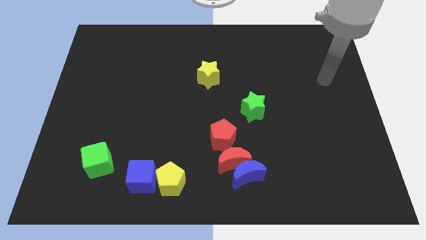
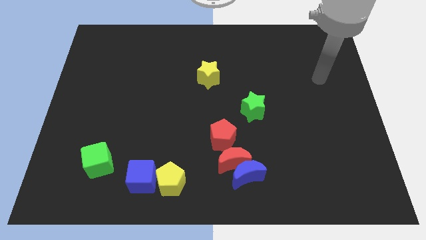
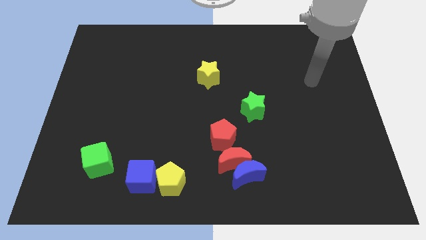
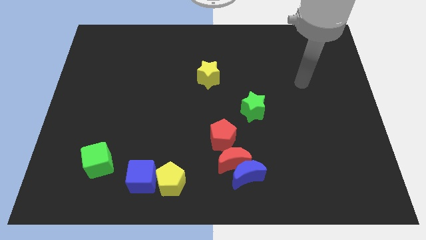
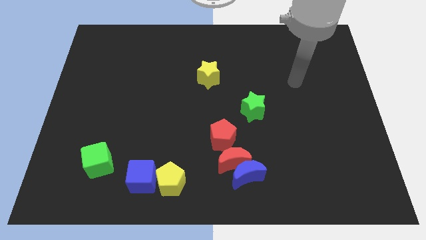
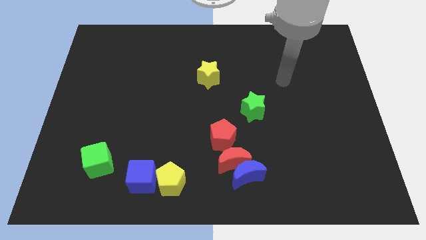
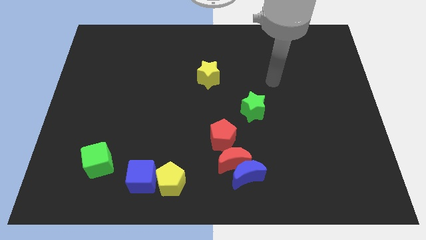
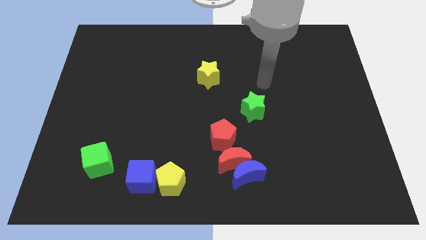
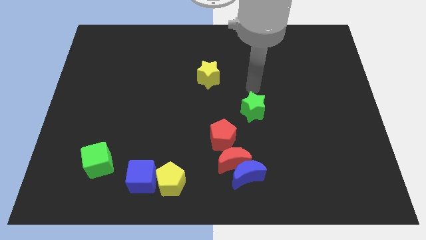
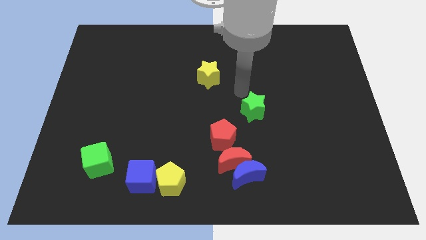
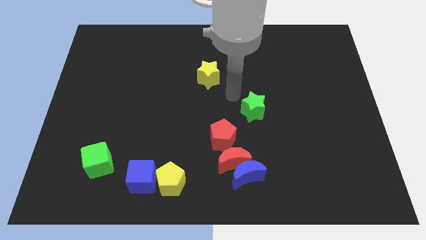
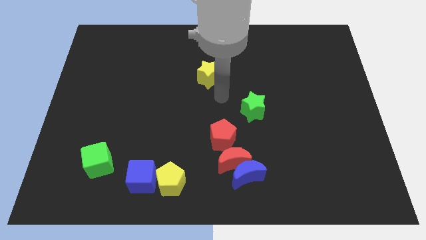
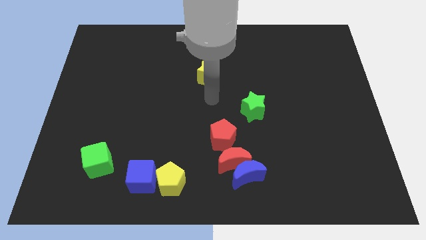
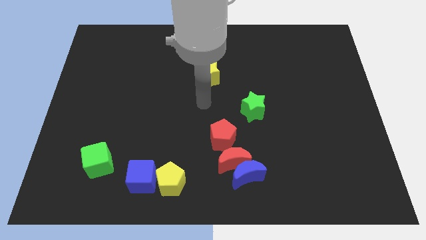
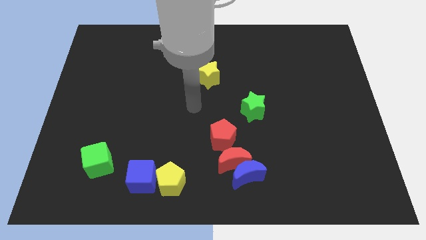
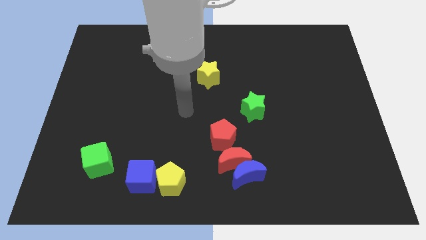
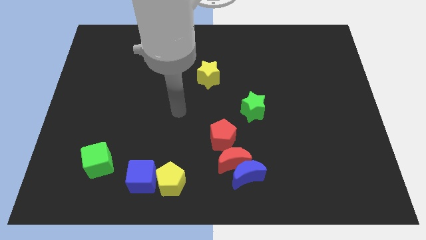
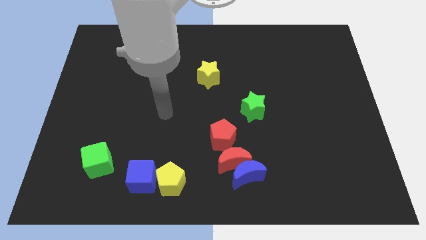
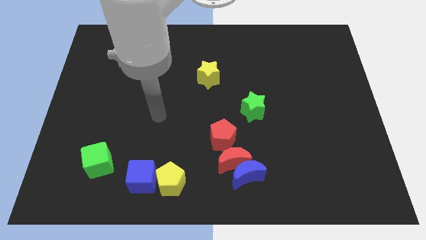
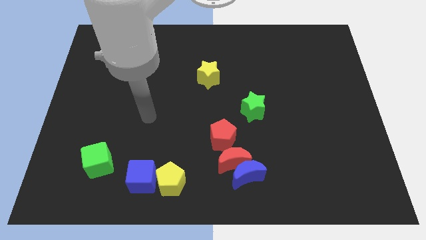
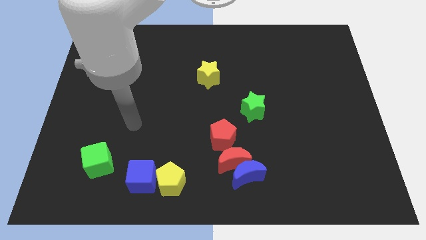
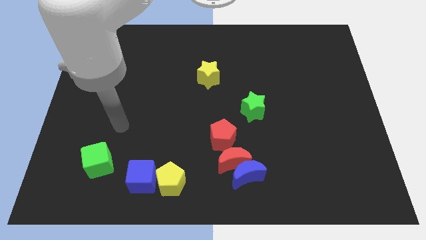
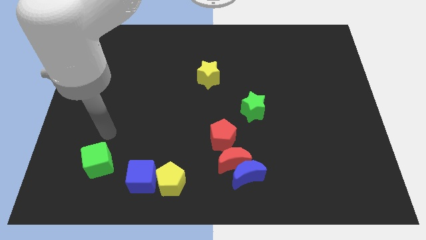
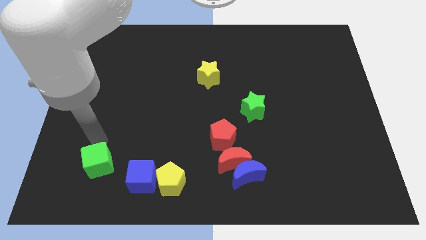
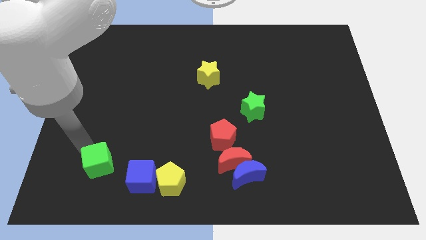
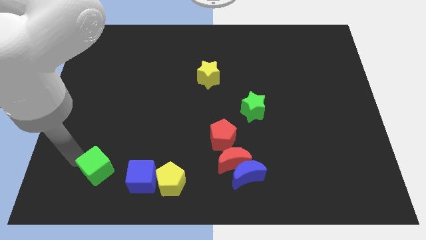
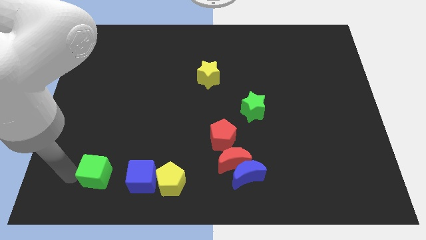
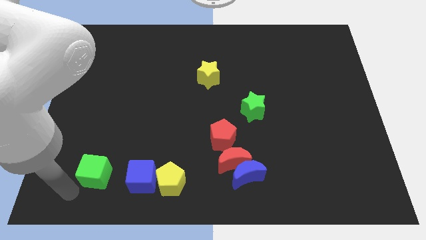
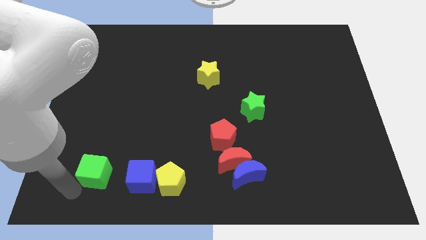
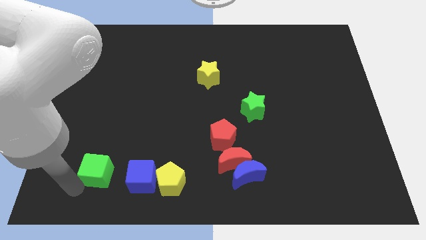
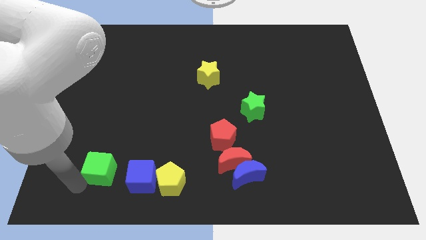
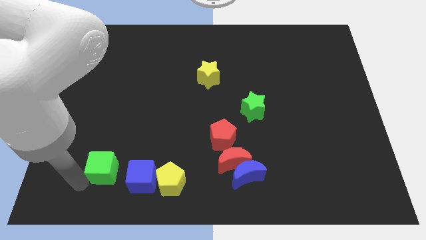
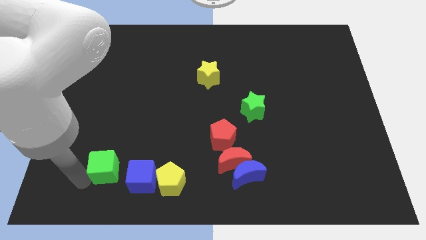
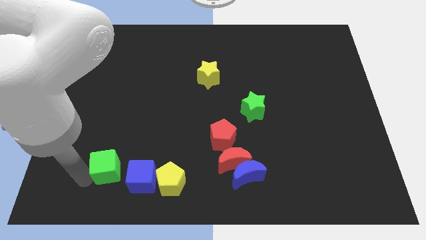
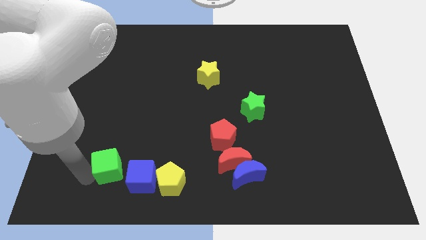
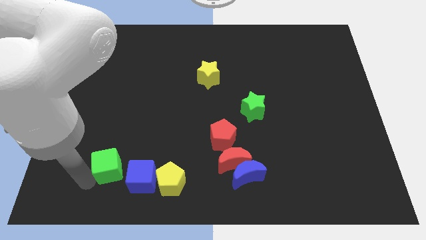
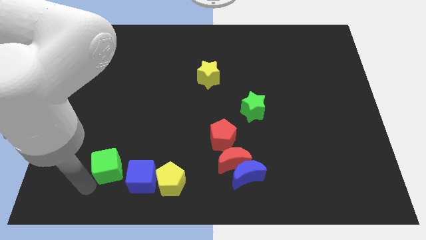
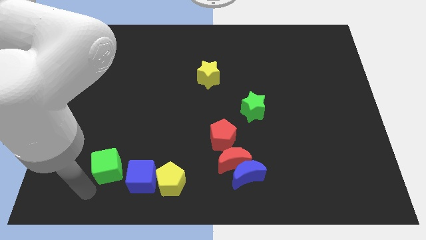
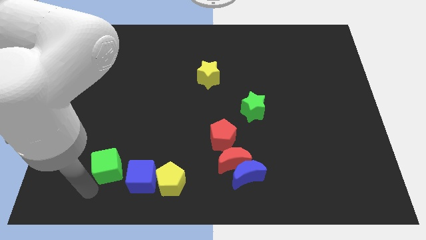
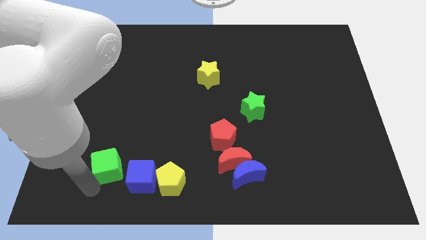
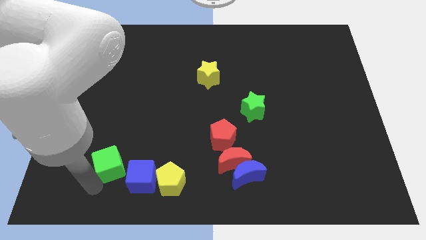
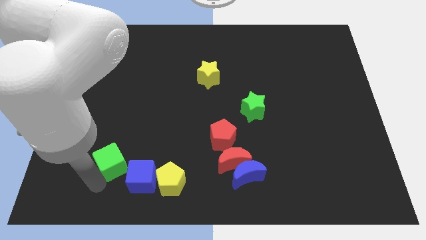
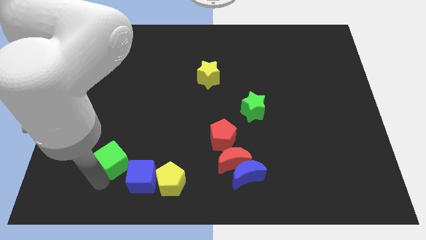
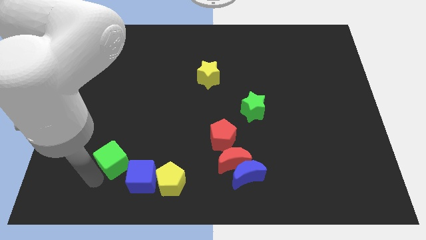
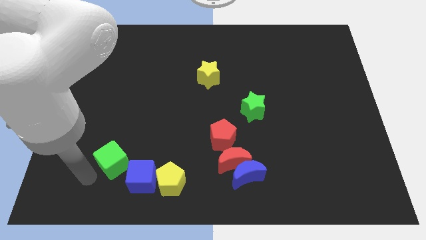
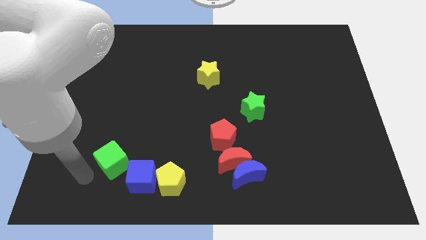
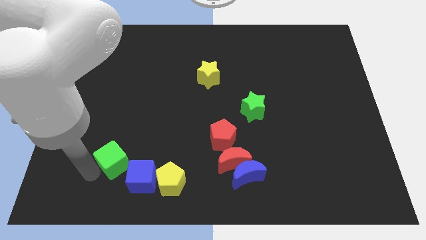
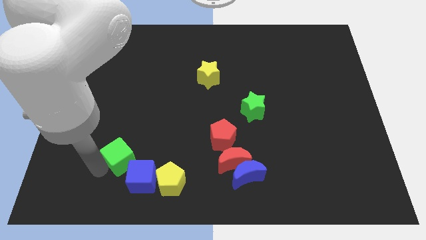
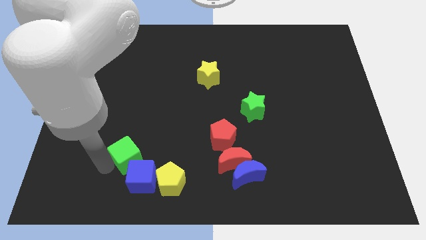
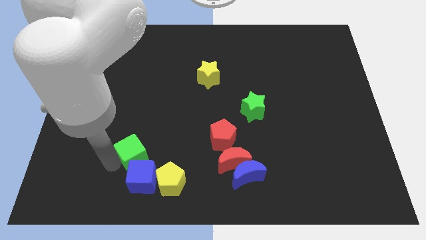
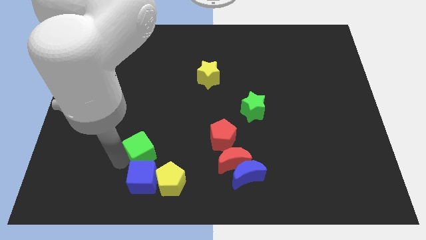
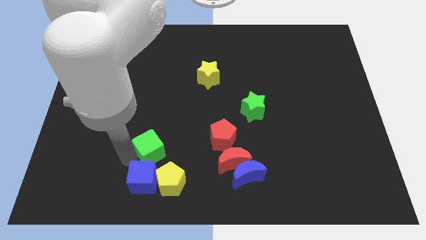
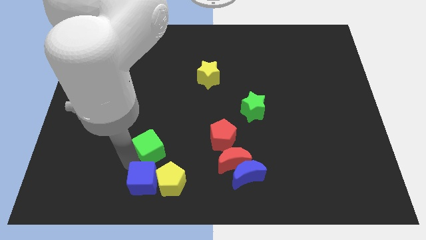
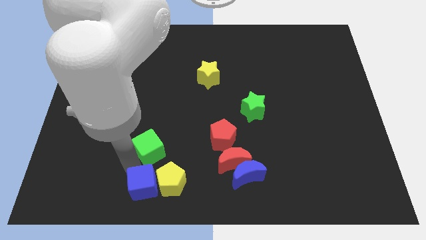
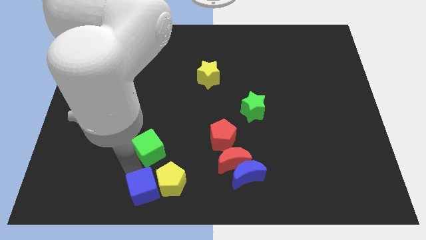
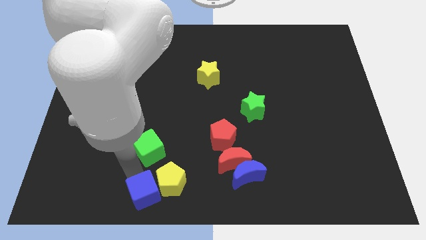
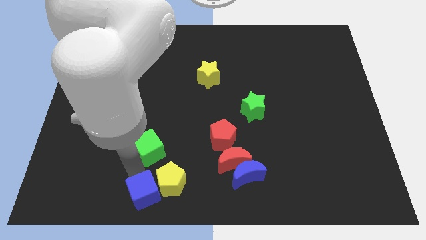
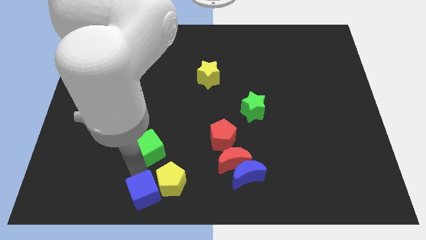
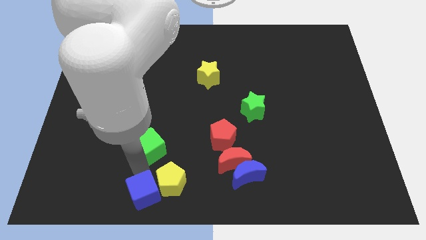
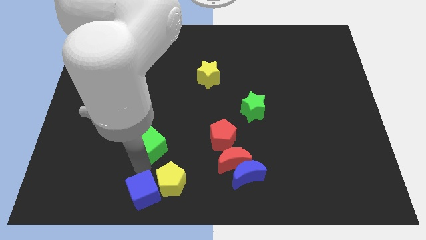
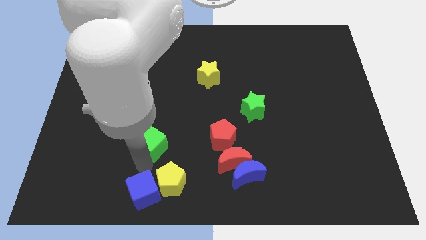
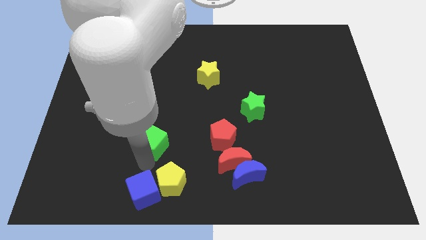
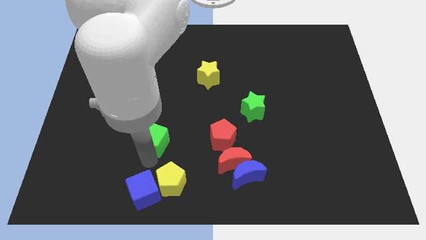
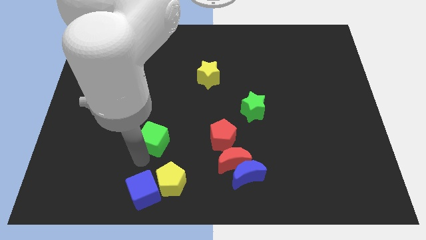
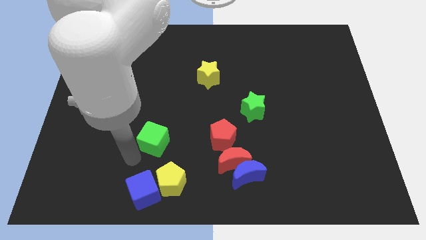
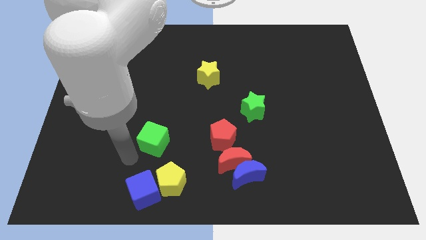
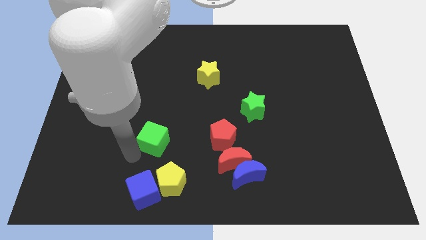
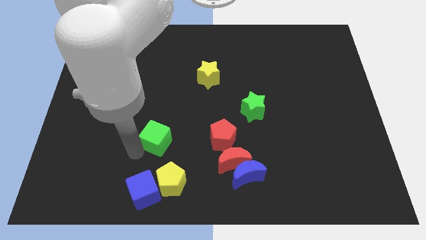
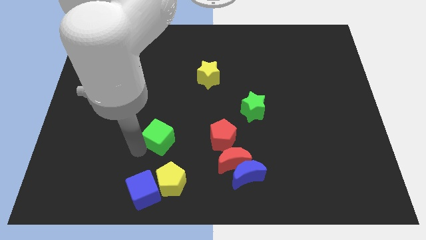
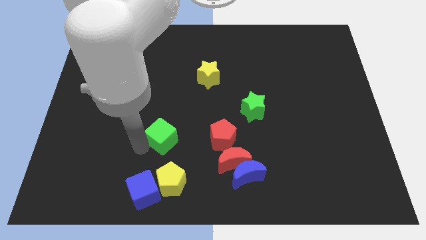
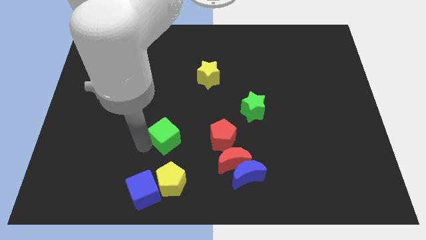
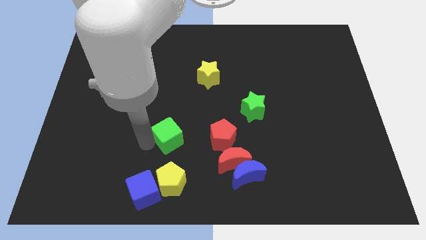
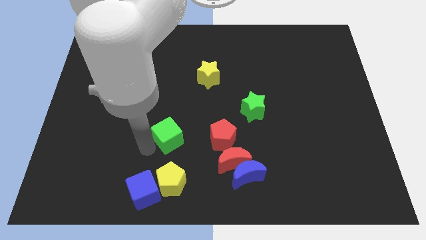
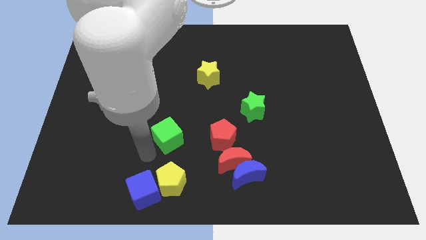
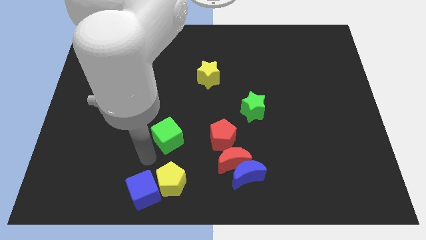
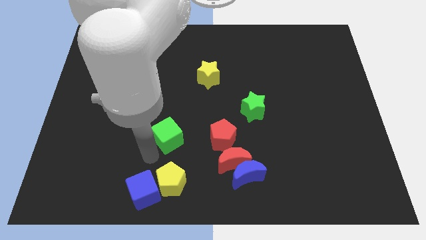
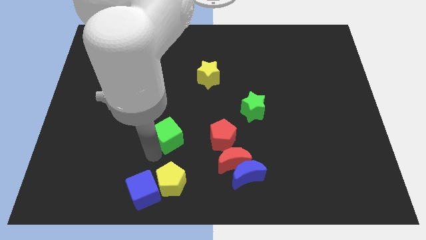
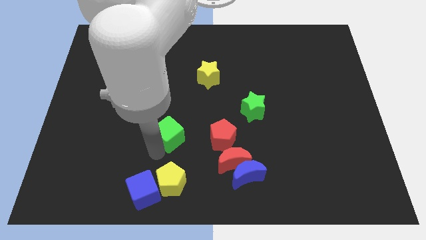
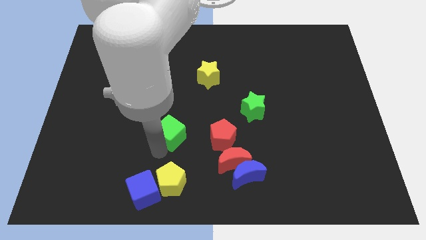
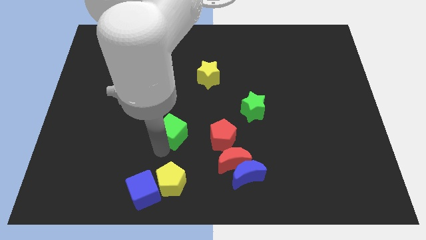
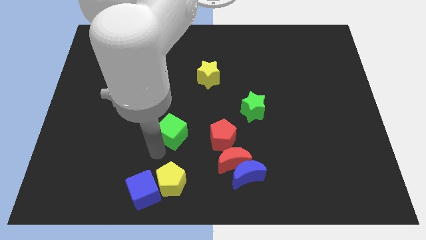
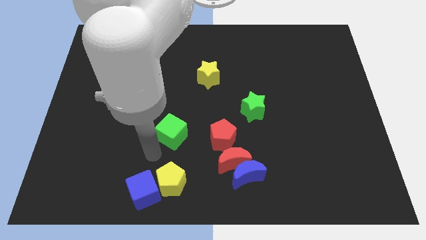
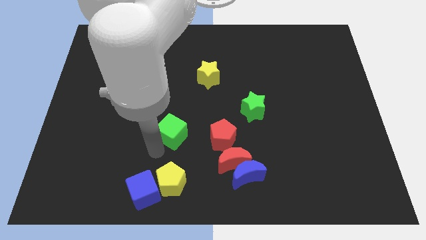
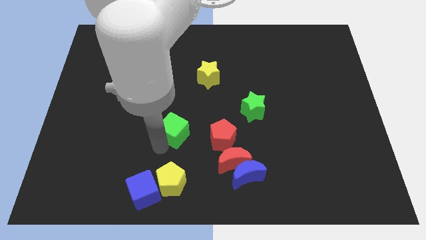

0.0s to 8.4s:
push the green cube to the middle of the board
